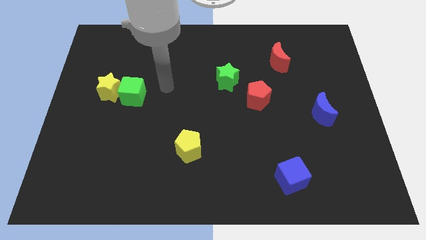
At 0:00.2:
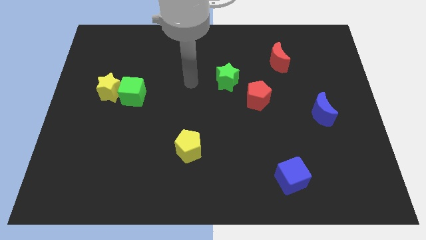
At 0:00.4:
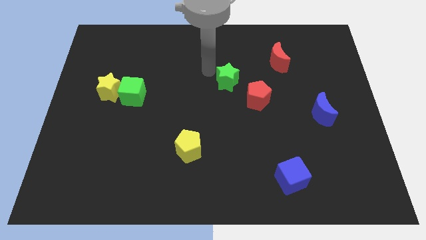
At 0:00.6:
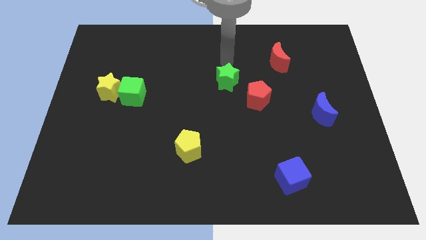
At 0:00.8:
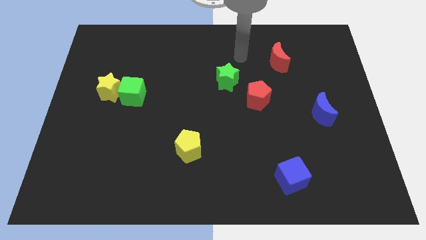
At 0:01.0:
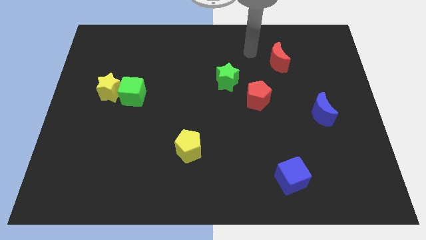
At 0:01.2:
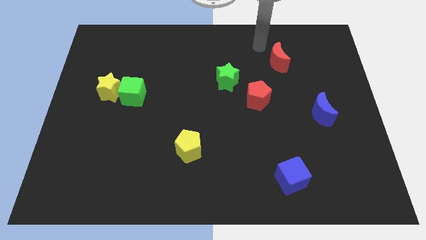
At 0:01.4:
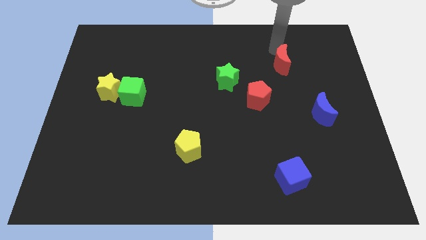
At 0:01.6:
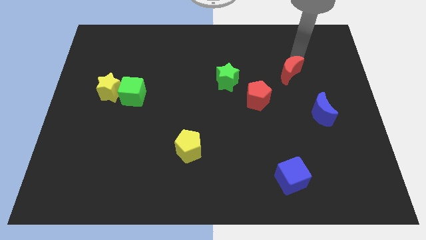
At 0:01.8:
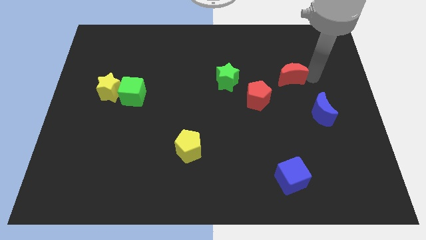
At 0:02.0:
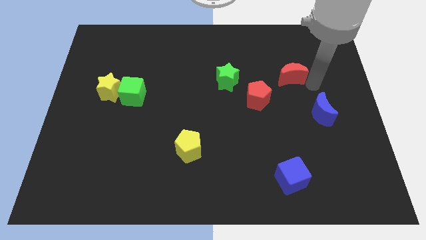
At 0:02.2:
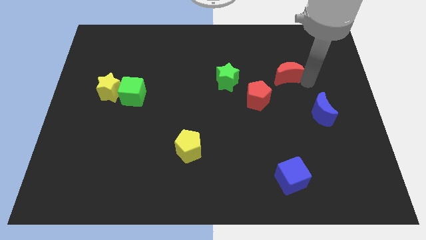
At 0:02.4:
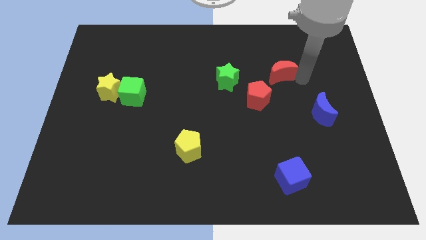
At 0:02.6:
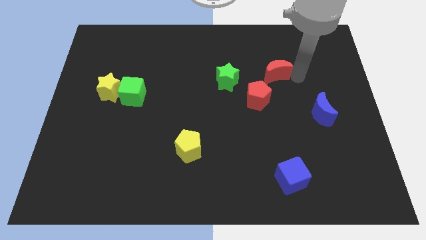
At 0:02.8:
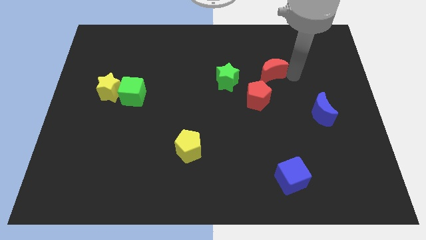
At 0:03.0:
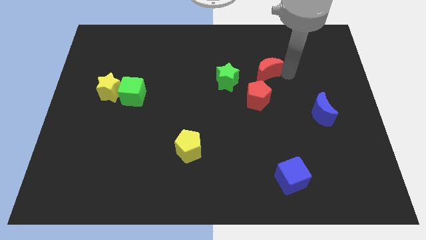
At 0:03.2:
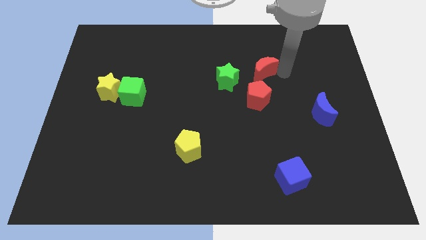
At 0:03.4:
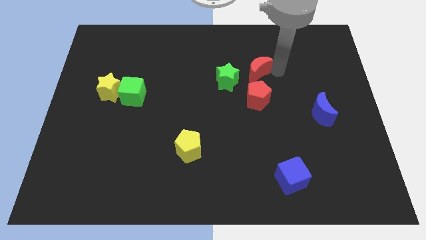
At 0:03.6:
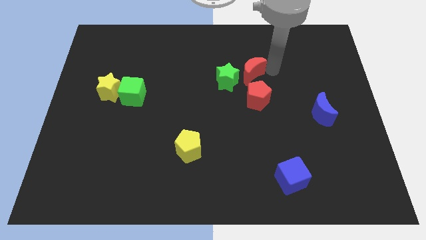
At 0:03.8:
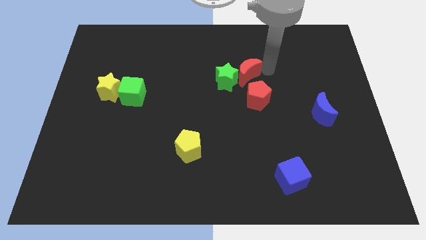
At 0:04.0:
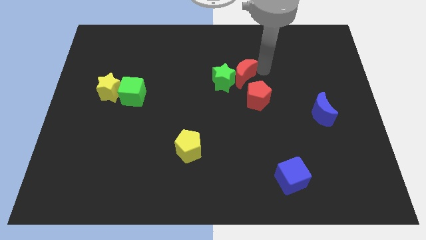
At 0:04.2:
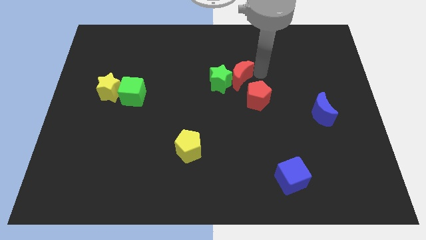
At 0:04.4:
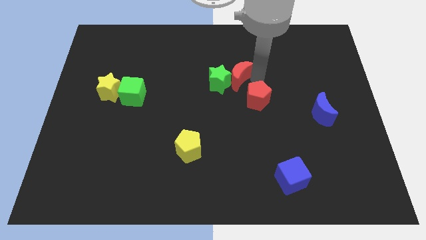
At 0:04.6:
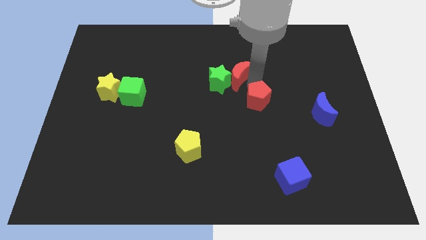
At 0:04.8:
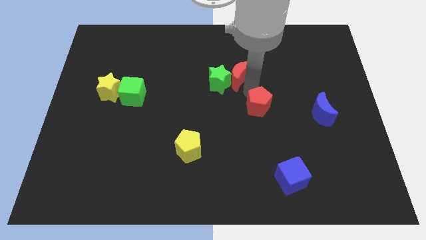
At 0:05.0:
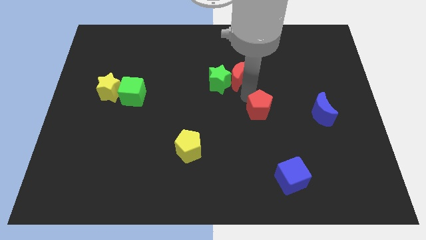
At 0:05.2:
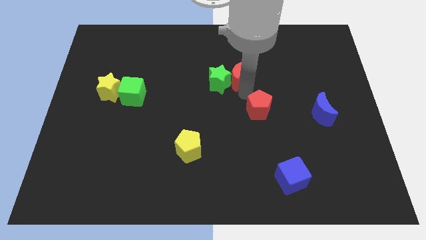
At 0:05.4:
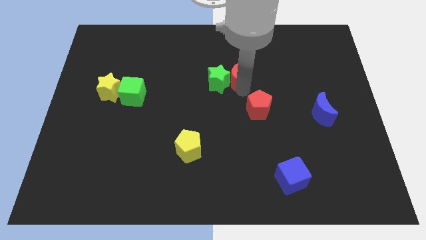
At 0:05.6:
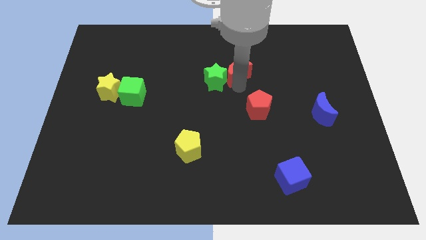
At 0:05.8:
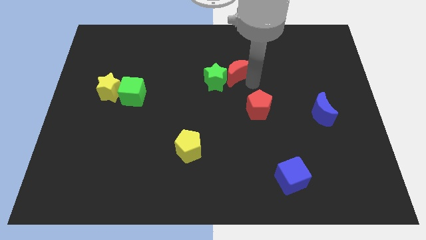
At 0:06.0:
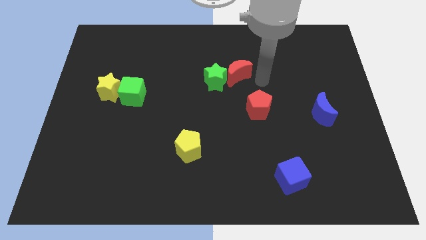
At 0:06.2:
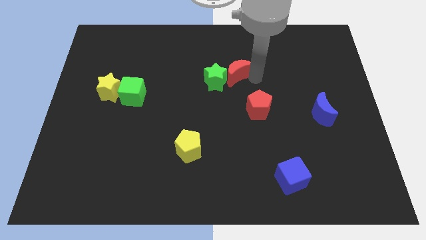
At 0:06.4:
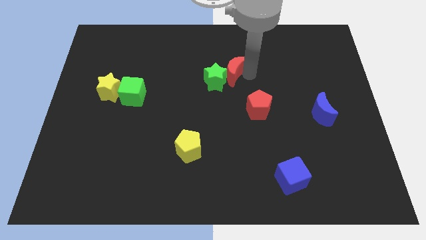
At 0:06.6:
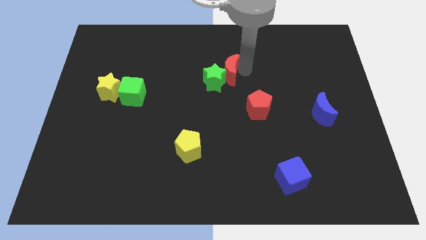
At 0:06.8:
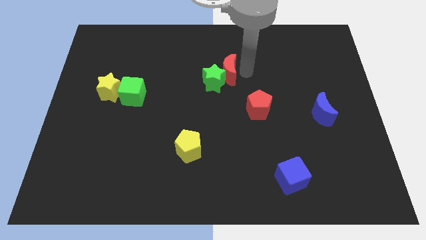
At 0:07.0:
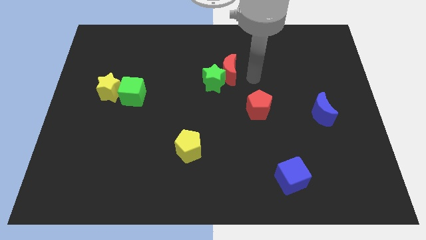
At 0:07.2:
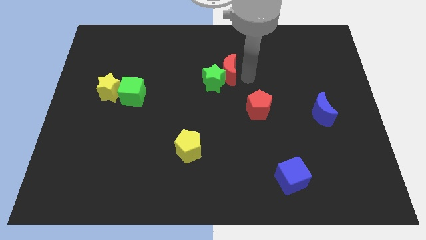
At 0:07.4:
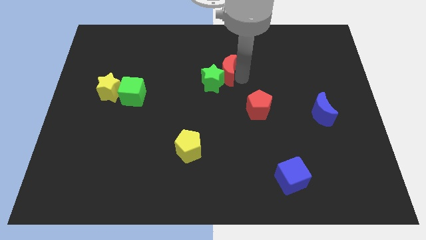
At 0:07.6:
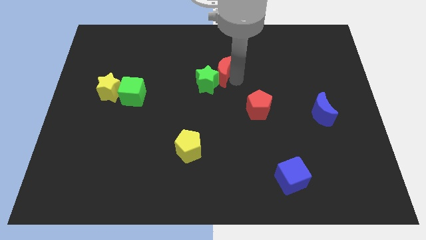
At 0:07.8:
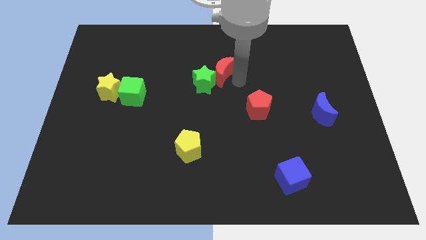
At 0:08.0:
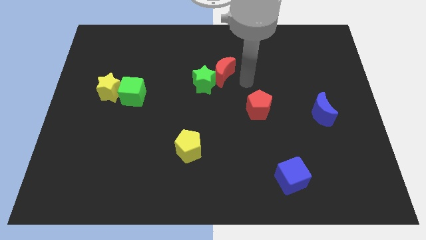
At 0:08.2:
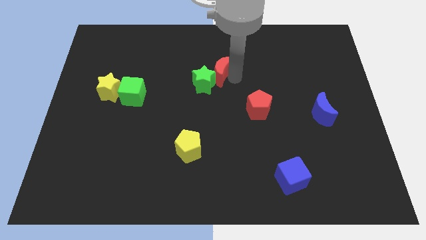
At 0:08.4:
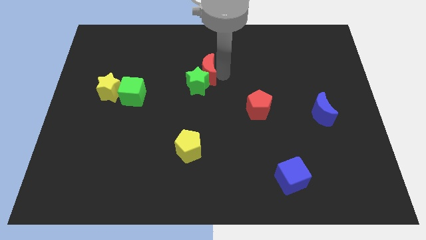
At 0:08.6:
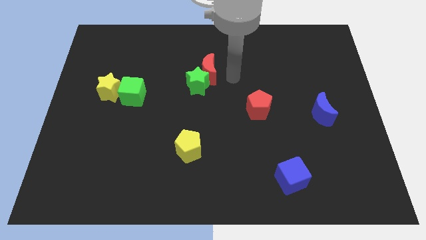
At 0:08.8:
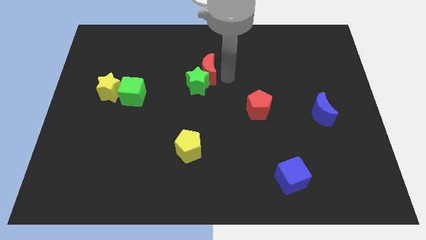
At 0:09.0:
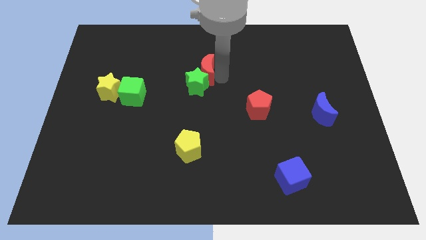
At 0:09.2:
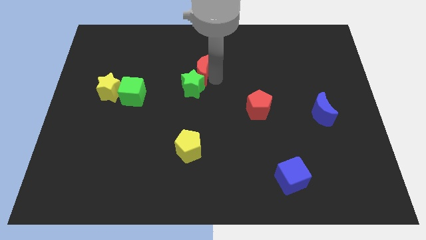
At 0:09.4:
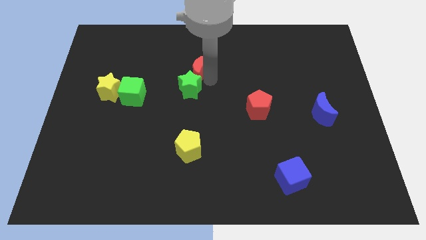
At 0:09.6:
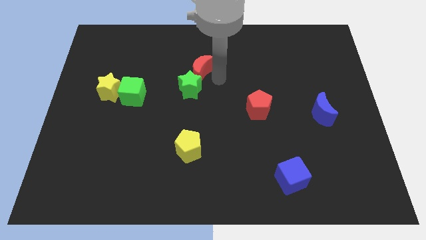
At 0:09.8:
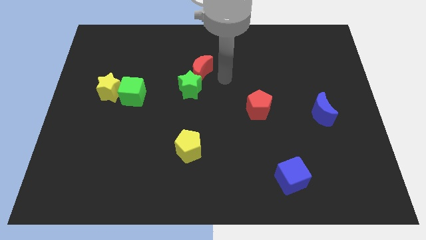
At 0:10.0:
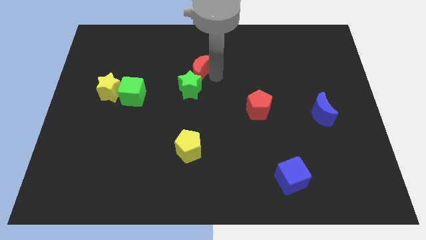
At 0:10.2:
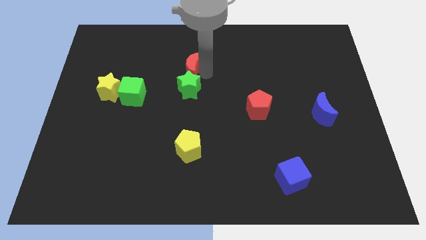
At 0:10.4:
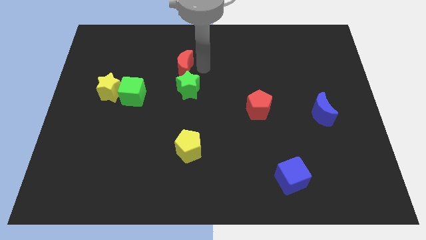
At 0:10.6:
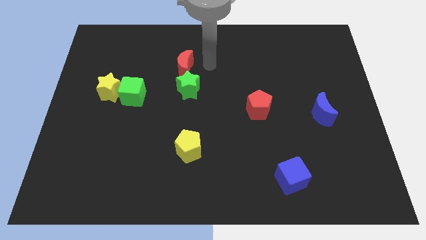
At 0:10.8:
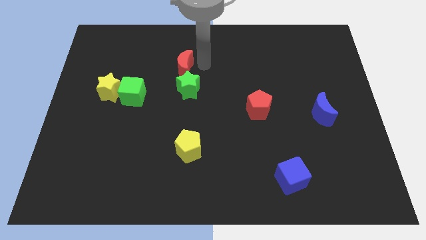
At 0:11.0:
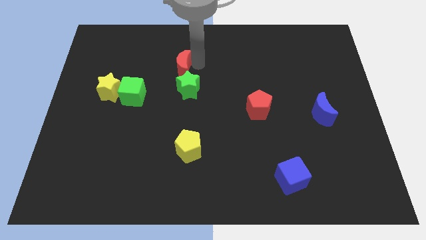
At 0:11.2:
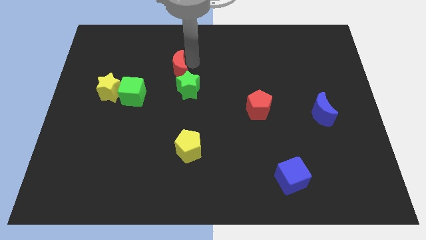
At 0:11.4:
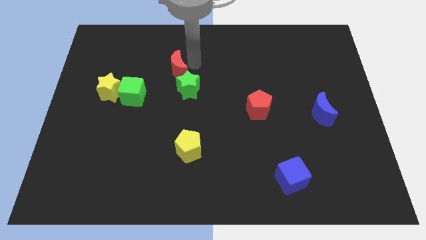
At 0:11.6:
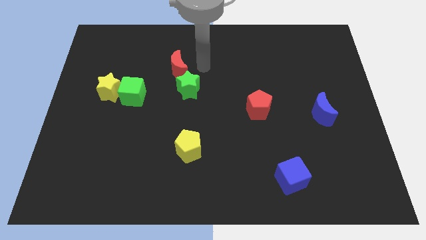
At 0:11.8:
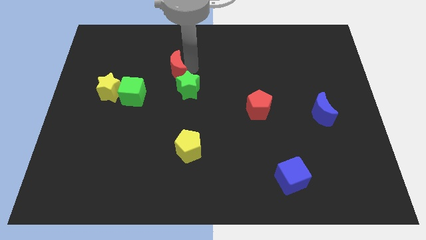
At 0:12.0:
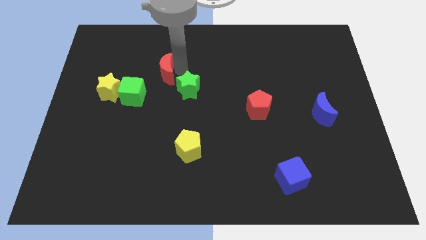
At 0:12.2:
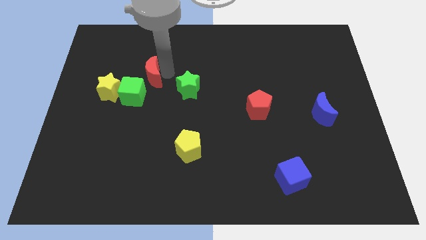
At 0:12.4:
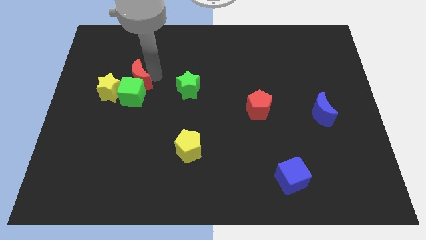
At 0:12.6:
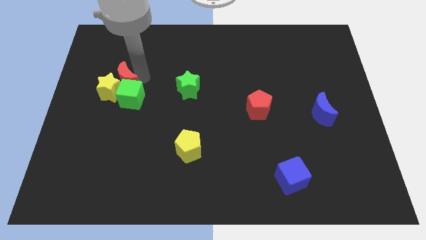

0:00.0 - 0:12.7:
put the red moon towards the yellow star

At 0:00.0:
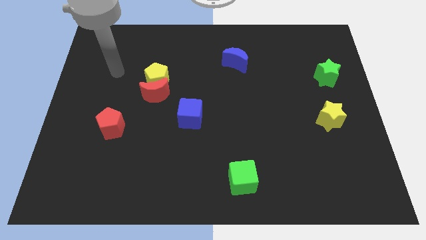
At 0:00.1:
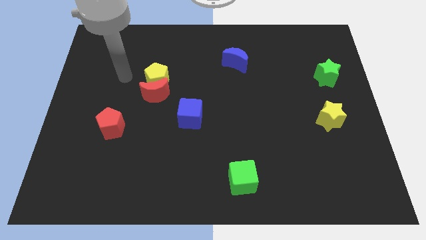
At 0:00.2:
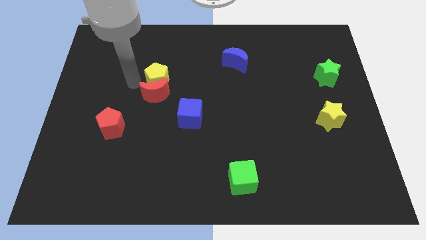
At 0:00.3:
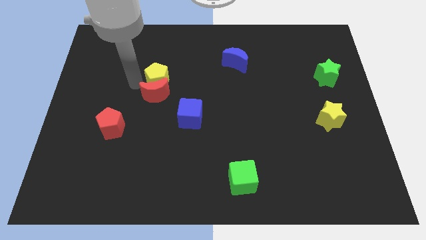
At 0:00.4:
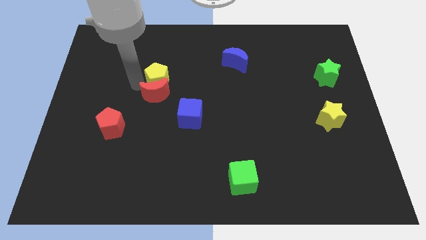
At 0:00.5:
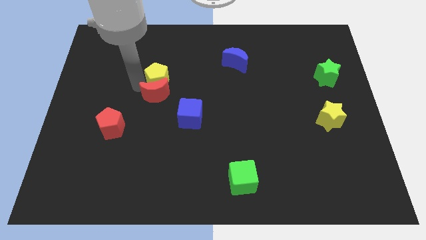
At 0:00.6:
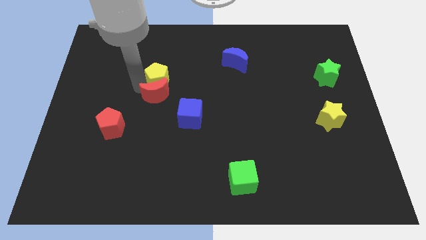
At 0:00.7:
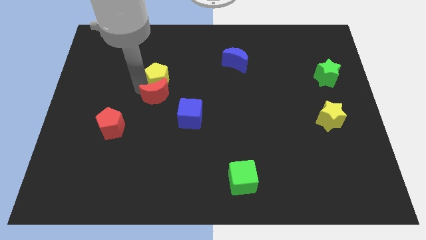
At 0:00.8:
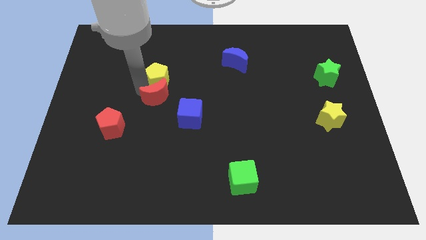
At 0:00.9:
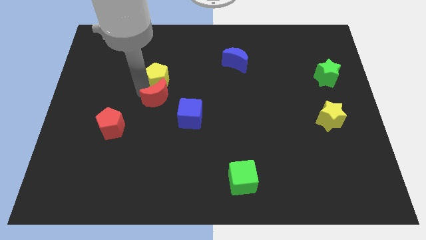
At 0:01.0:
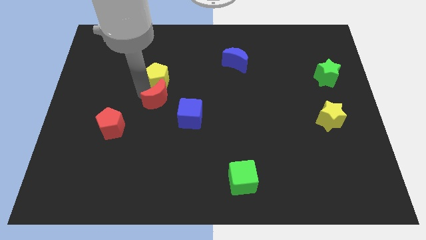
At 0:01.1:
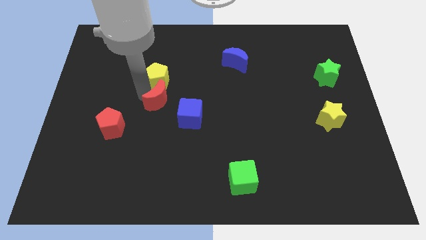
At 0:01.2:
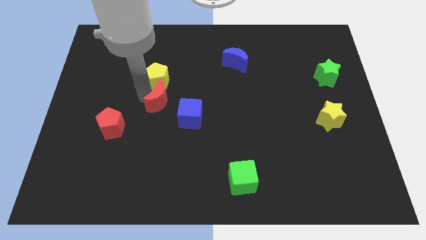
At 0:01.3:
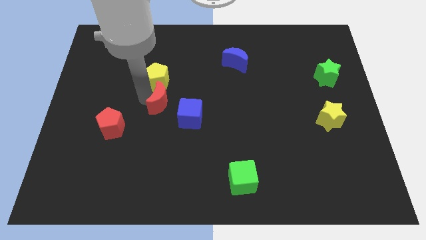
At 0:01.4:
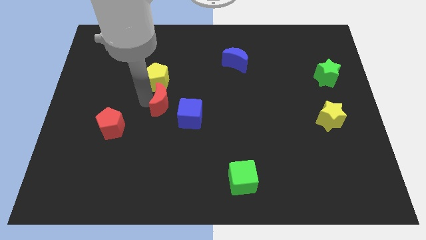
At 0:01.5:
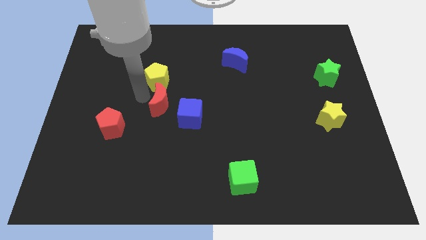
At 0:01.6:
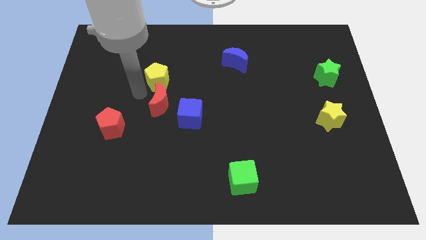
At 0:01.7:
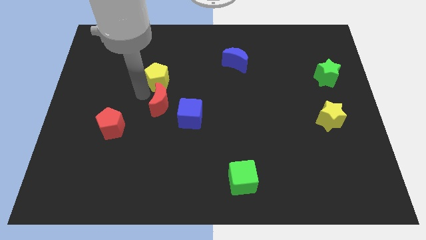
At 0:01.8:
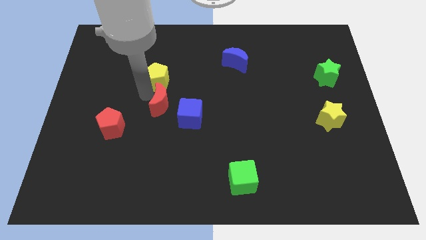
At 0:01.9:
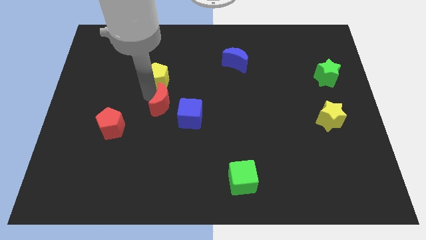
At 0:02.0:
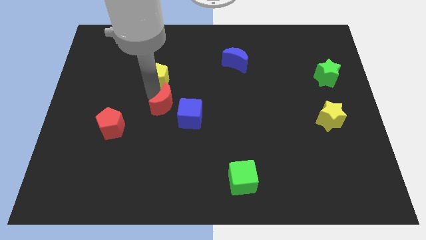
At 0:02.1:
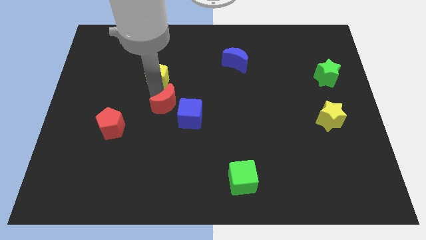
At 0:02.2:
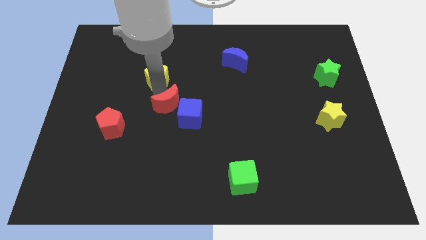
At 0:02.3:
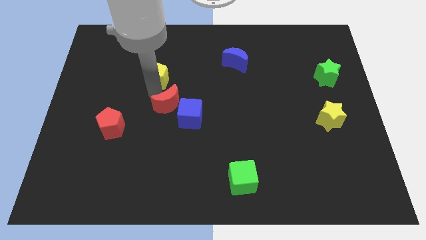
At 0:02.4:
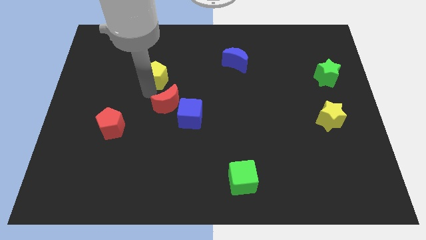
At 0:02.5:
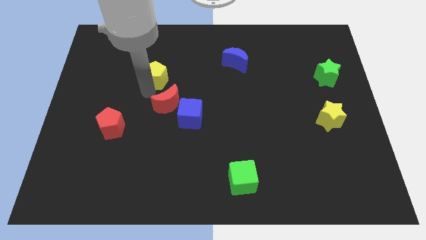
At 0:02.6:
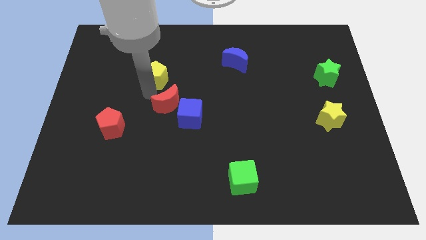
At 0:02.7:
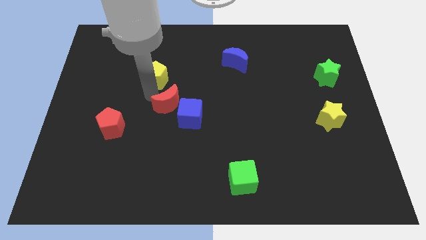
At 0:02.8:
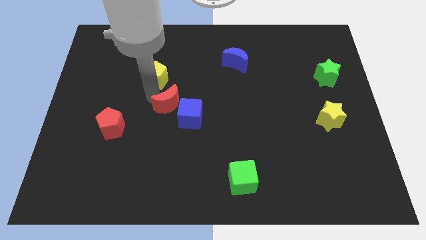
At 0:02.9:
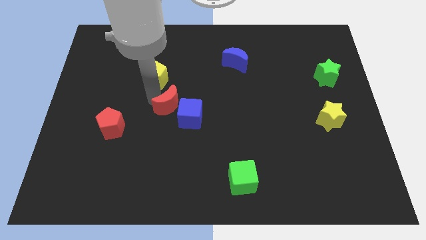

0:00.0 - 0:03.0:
move the red moon towards the blue cube
